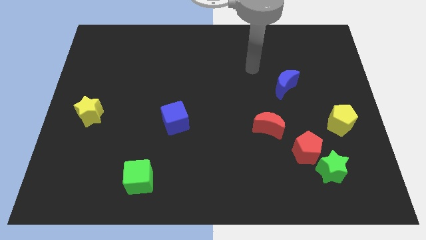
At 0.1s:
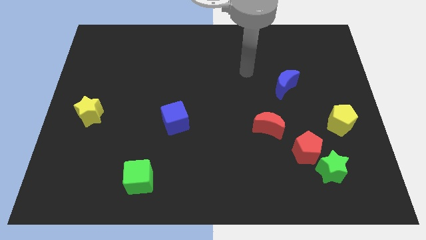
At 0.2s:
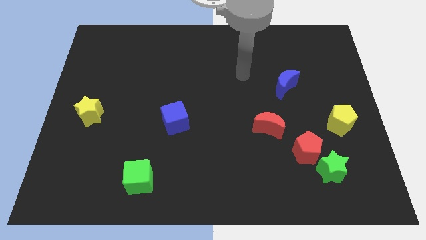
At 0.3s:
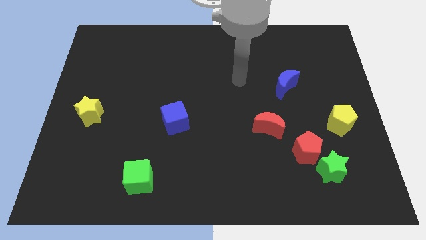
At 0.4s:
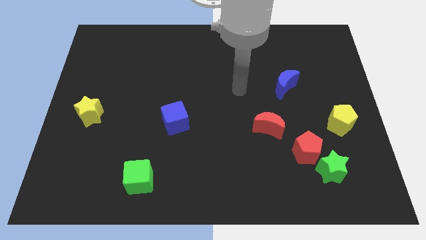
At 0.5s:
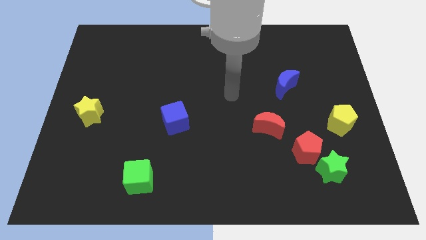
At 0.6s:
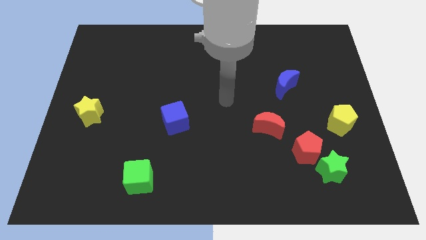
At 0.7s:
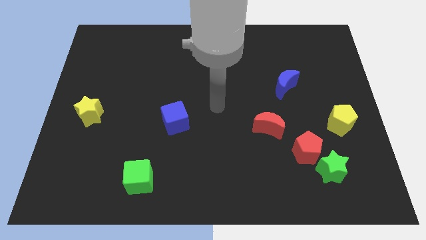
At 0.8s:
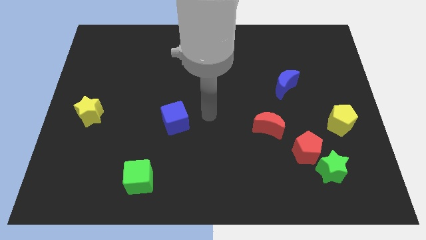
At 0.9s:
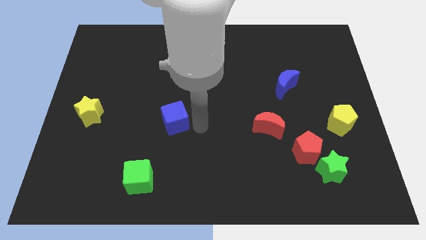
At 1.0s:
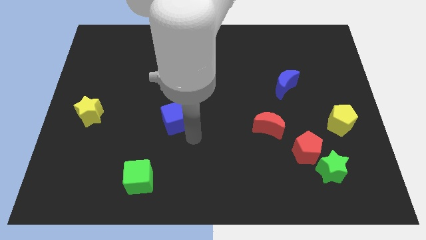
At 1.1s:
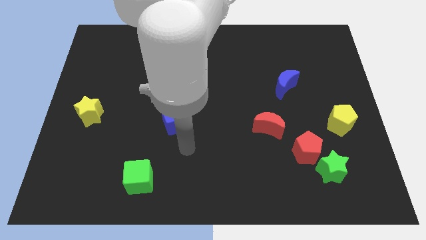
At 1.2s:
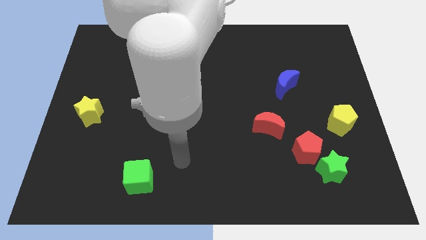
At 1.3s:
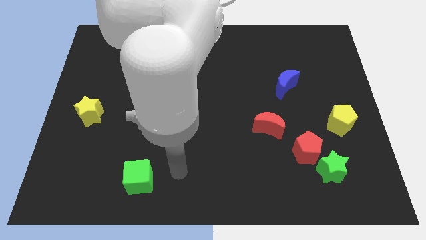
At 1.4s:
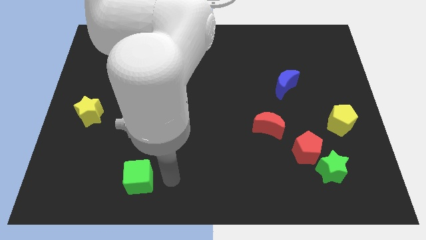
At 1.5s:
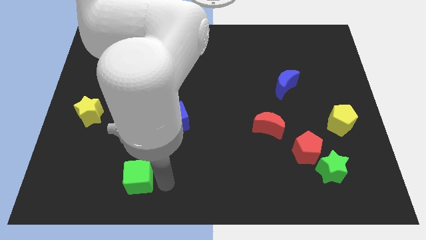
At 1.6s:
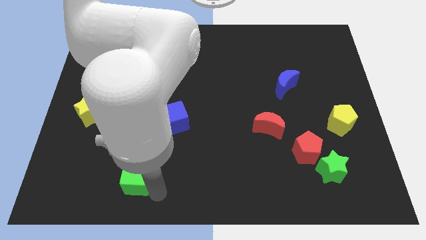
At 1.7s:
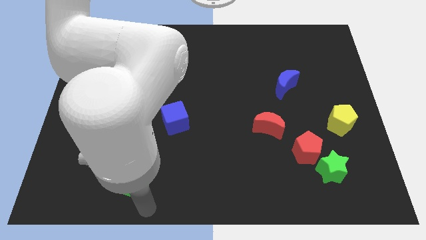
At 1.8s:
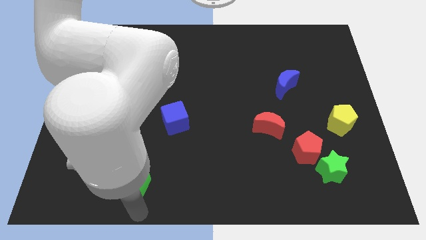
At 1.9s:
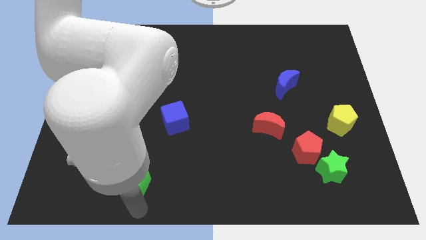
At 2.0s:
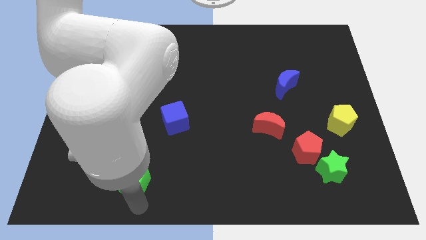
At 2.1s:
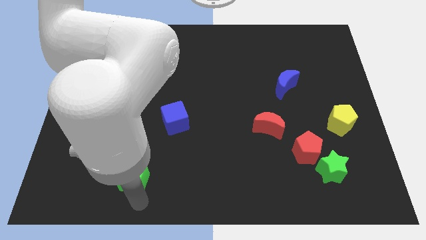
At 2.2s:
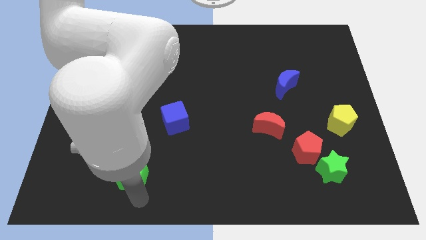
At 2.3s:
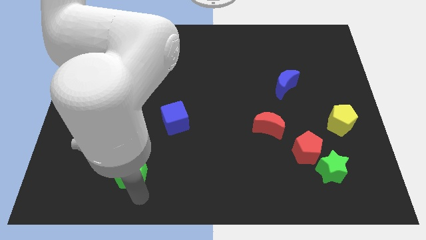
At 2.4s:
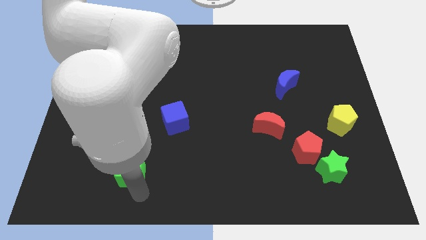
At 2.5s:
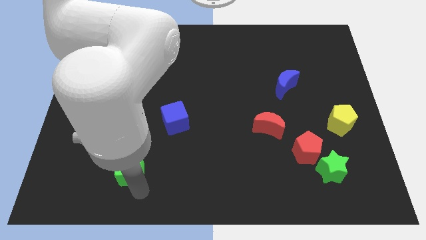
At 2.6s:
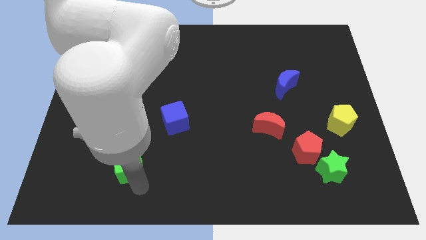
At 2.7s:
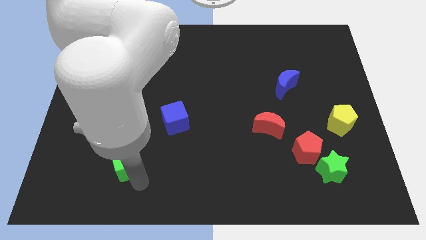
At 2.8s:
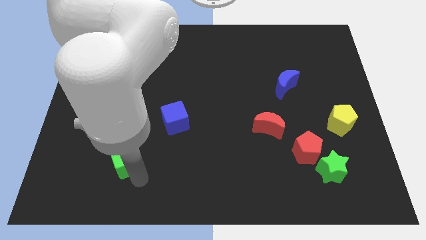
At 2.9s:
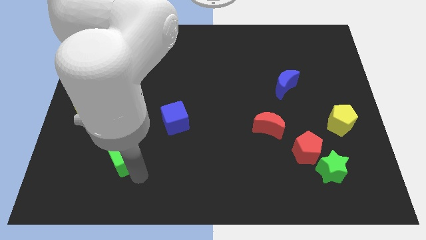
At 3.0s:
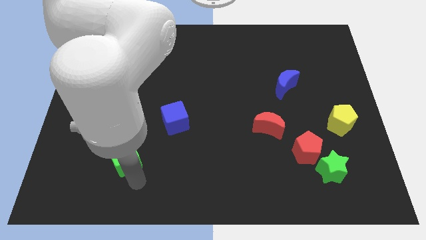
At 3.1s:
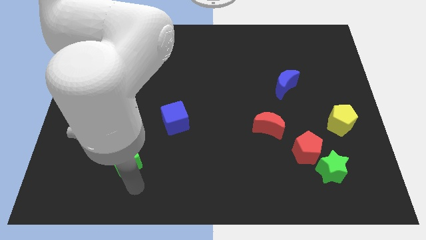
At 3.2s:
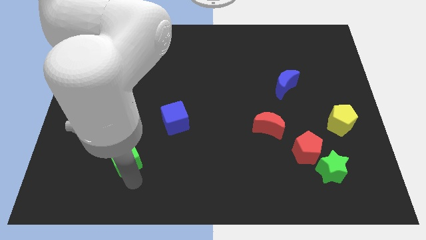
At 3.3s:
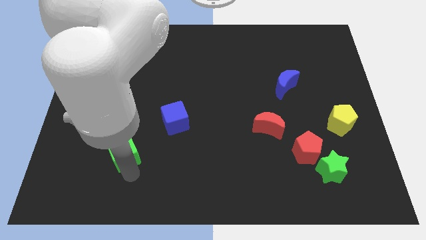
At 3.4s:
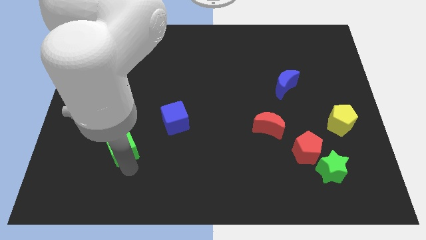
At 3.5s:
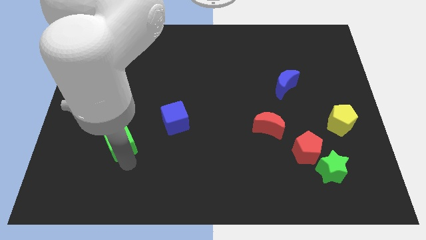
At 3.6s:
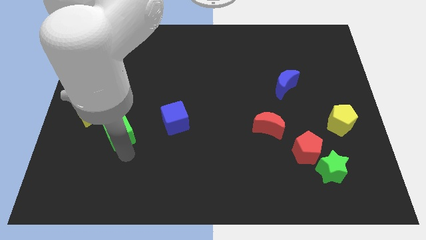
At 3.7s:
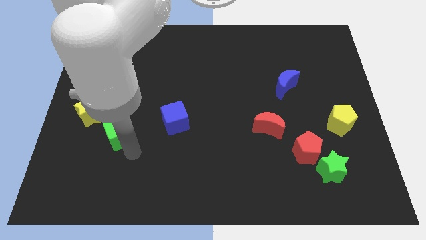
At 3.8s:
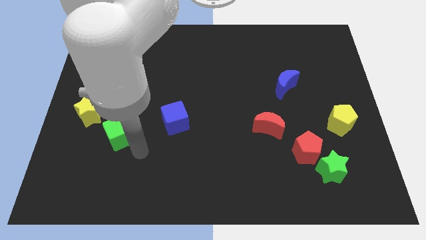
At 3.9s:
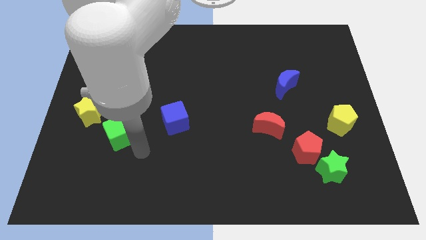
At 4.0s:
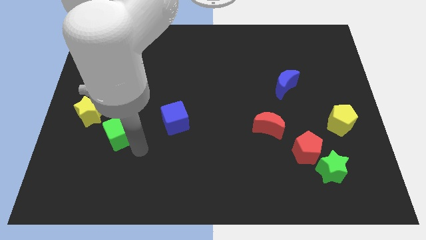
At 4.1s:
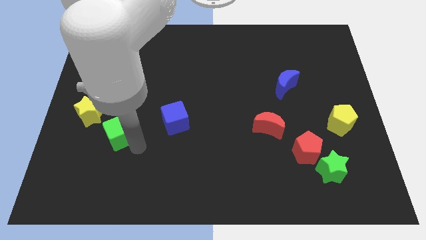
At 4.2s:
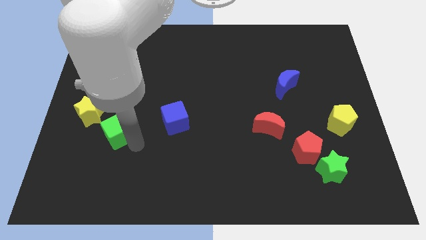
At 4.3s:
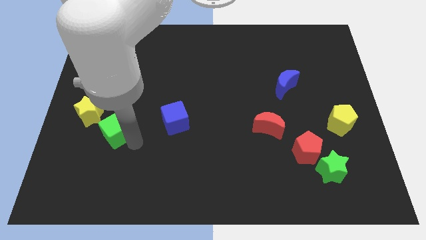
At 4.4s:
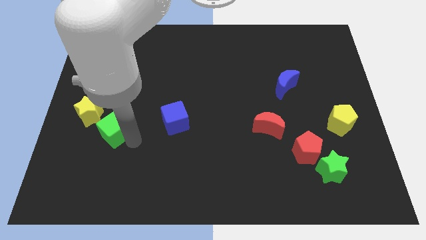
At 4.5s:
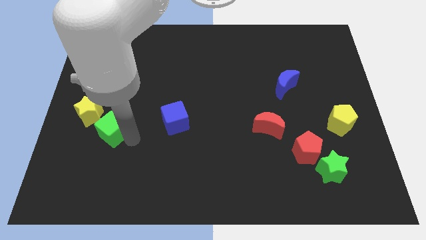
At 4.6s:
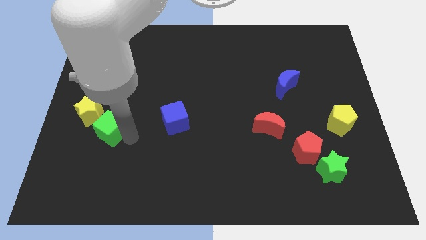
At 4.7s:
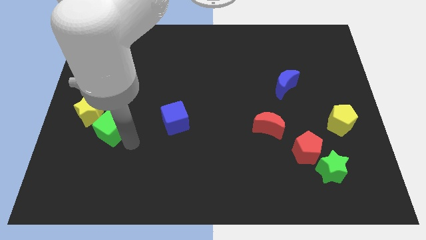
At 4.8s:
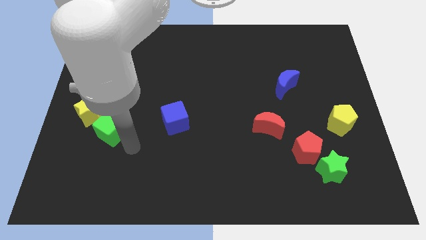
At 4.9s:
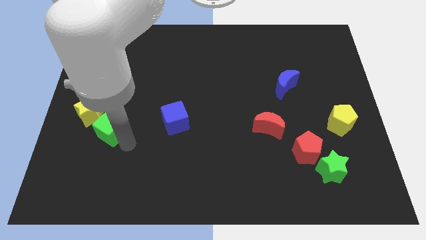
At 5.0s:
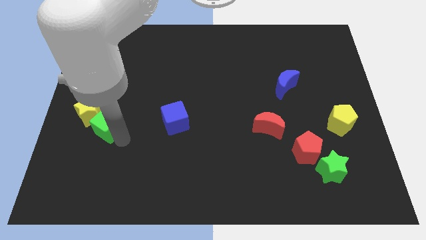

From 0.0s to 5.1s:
slide the green cube towards the yellow star

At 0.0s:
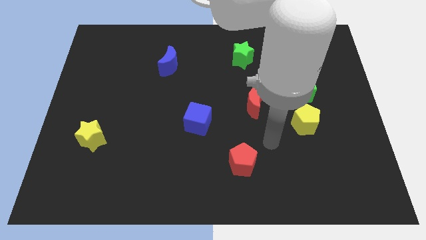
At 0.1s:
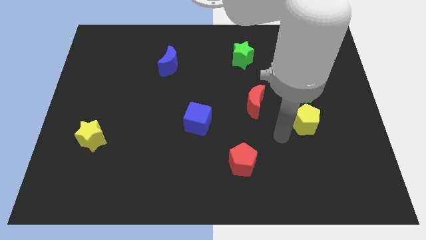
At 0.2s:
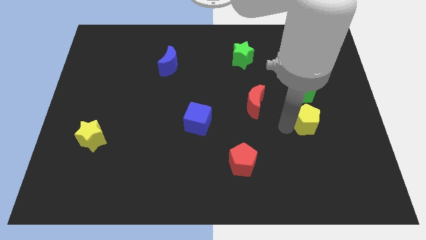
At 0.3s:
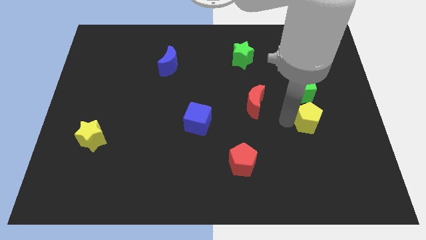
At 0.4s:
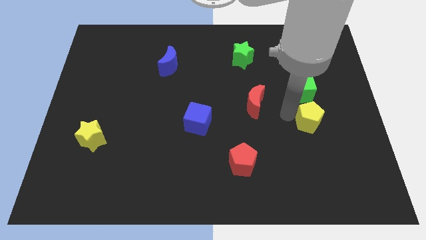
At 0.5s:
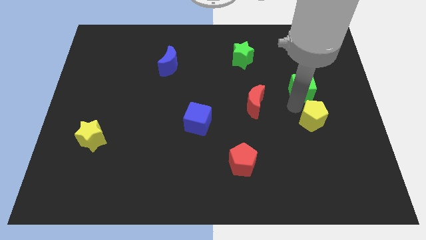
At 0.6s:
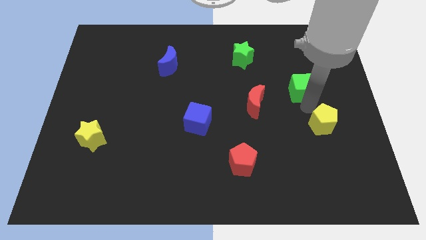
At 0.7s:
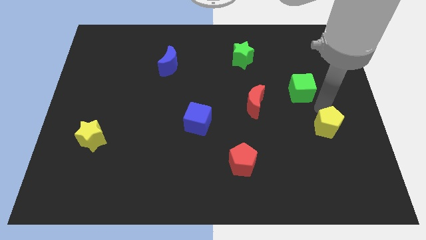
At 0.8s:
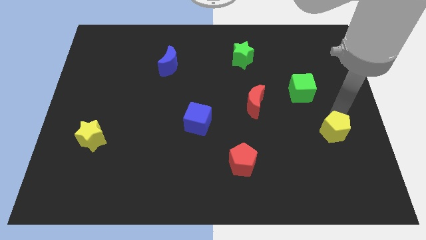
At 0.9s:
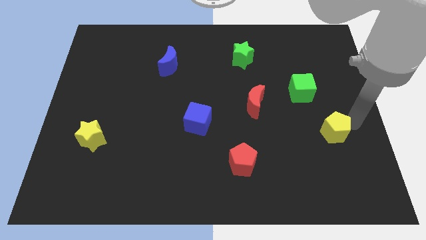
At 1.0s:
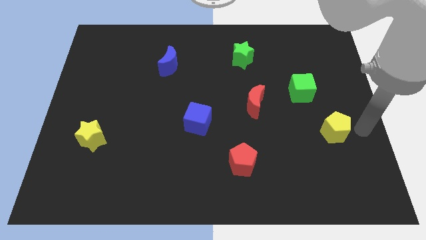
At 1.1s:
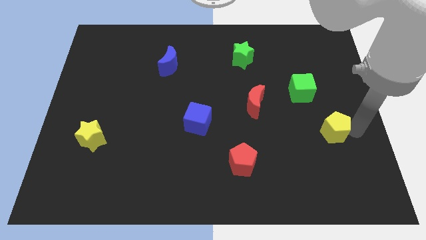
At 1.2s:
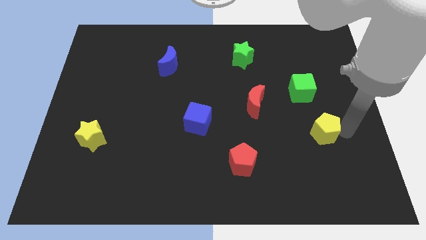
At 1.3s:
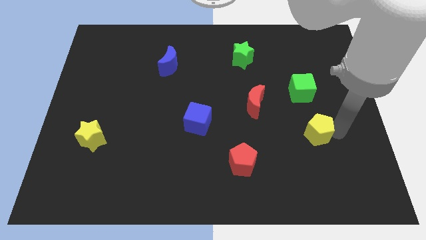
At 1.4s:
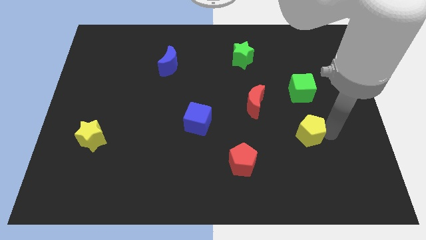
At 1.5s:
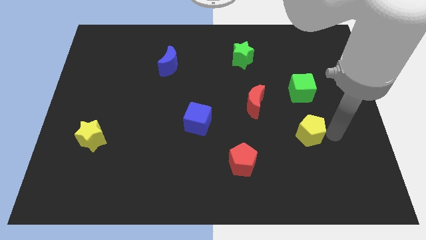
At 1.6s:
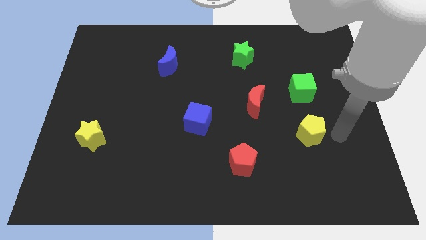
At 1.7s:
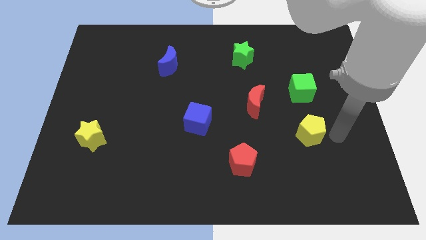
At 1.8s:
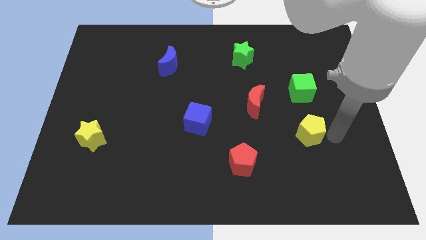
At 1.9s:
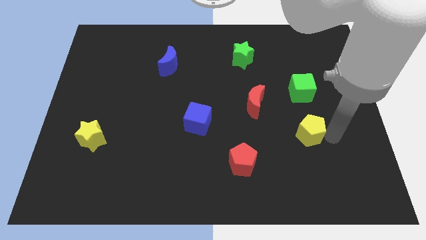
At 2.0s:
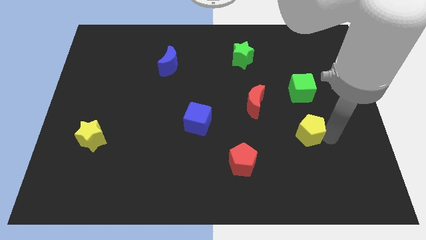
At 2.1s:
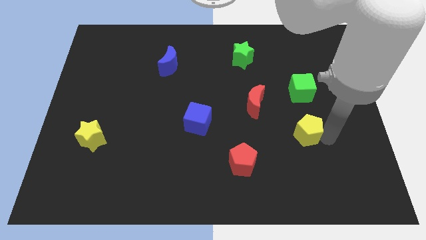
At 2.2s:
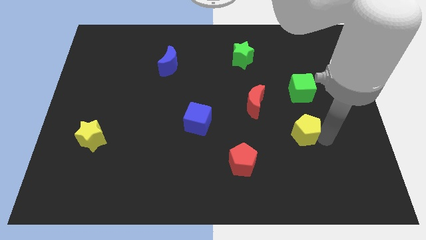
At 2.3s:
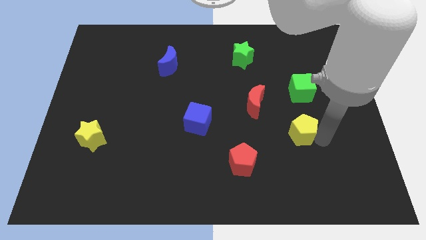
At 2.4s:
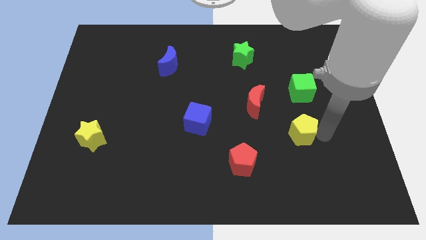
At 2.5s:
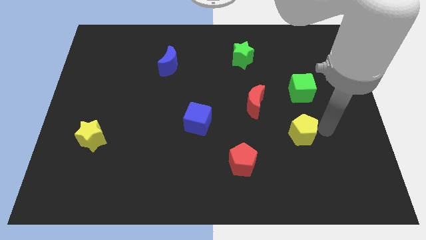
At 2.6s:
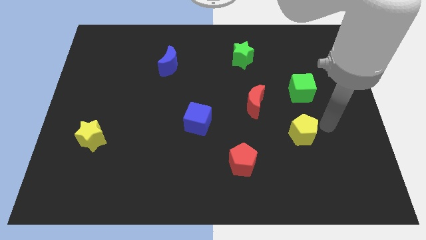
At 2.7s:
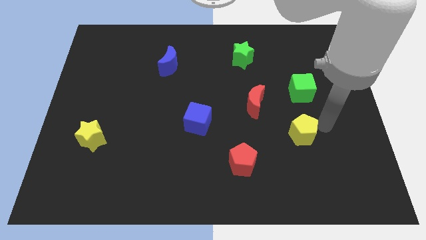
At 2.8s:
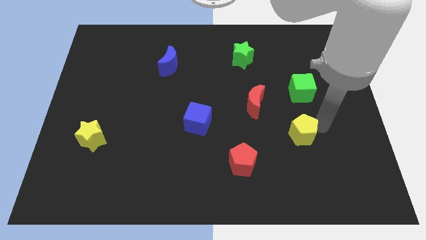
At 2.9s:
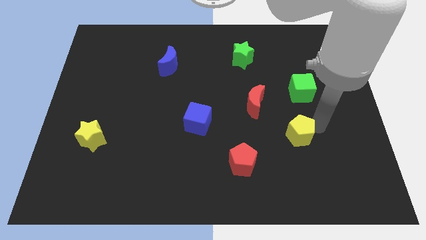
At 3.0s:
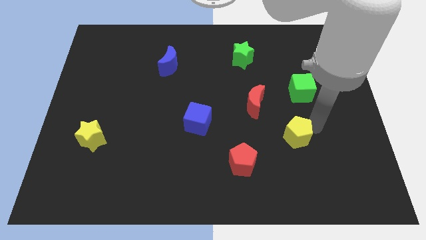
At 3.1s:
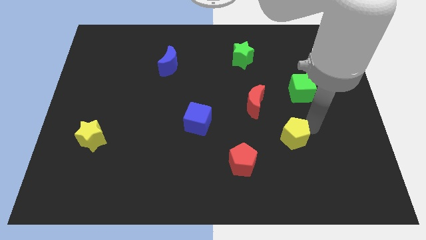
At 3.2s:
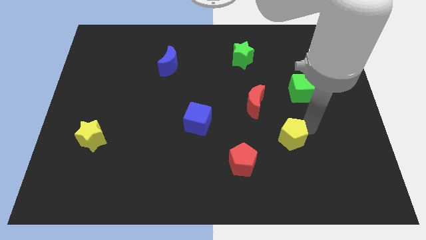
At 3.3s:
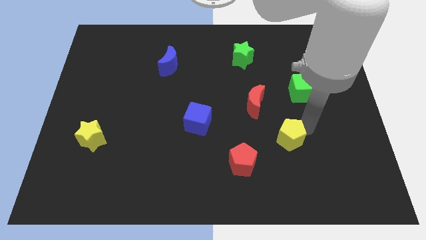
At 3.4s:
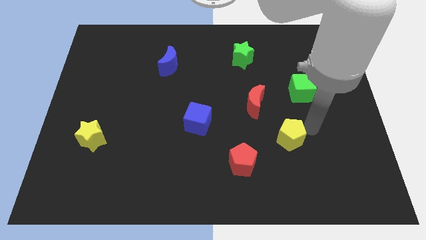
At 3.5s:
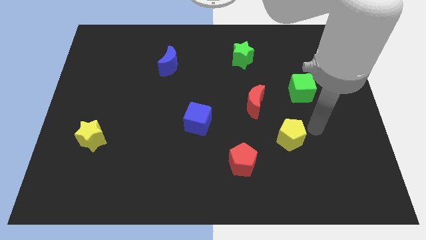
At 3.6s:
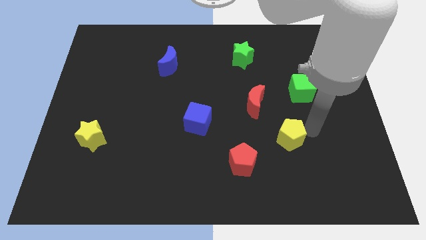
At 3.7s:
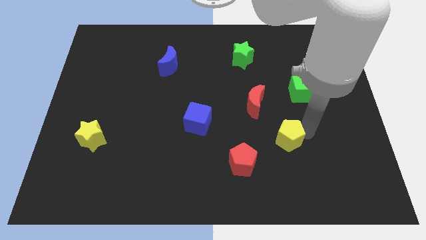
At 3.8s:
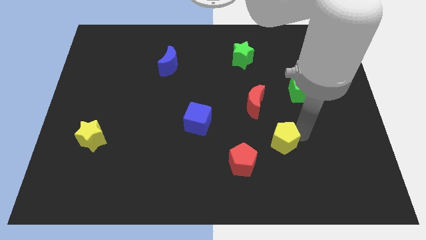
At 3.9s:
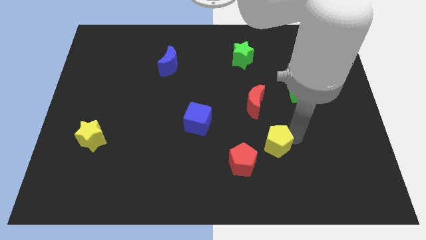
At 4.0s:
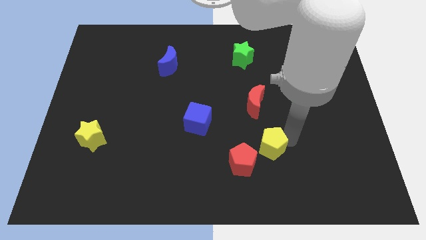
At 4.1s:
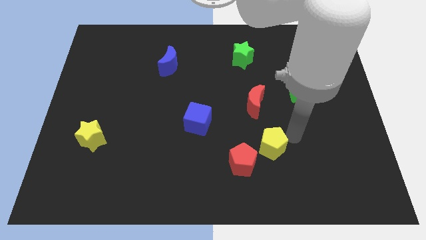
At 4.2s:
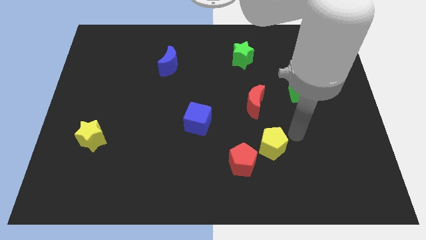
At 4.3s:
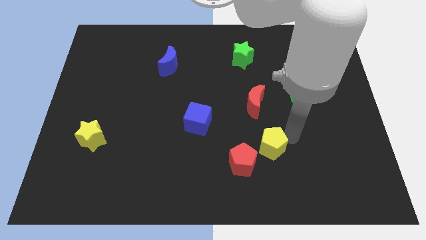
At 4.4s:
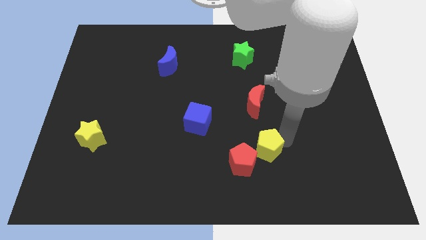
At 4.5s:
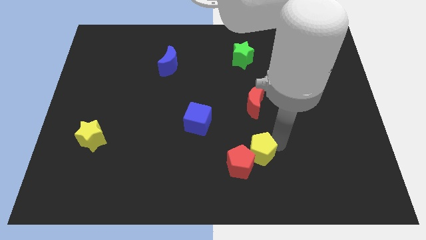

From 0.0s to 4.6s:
put the yellow pentagon towards the red pentagon
